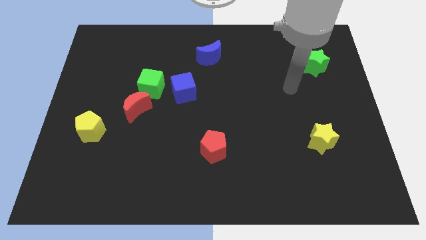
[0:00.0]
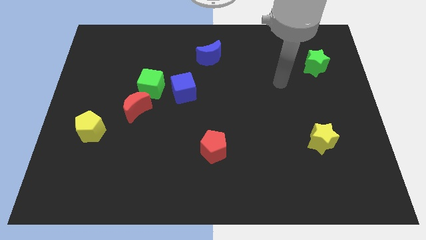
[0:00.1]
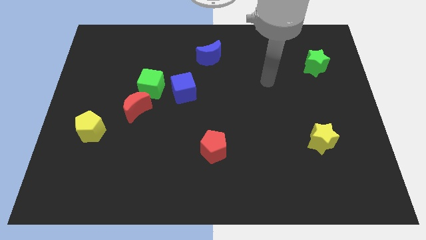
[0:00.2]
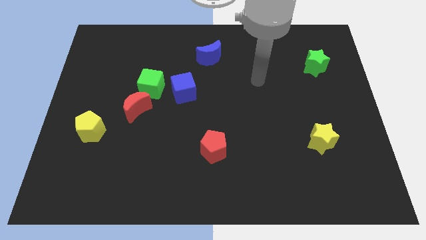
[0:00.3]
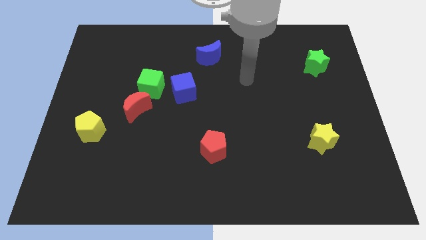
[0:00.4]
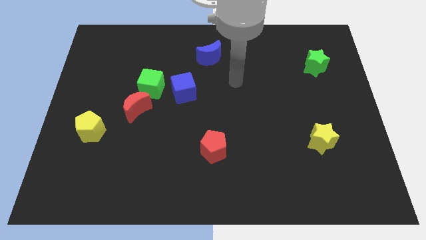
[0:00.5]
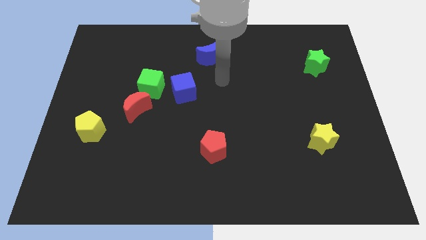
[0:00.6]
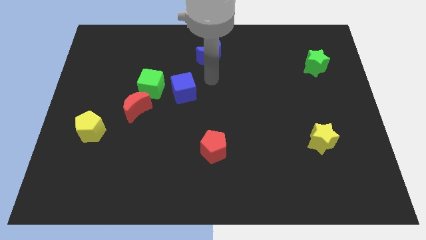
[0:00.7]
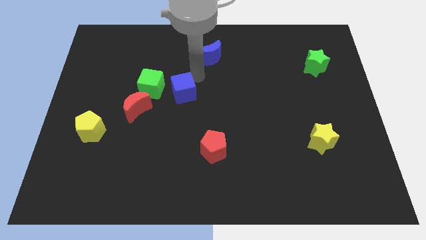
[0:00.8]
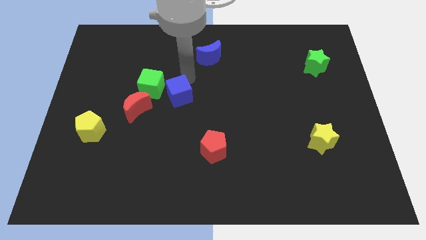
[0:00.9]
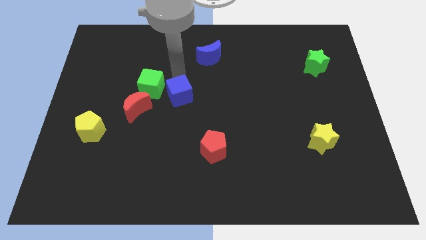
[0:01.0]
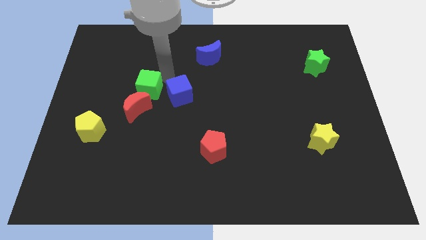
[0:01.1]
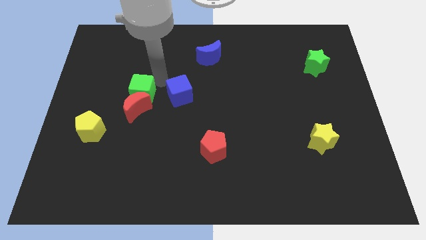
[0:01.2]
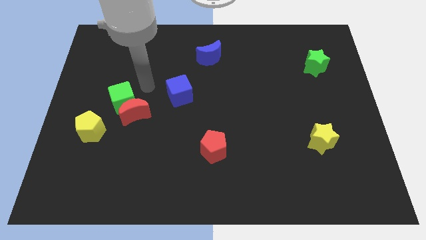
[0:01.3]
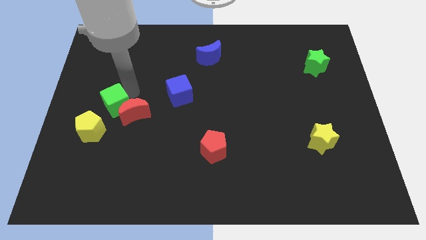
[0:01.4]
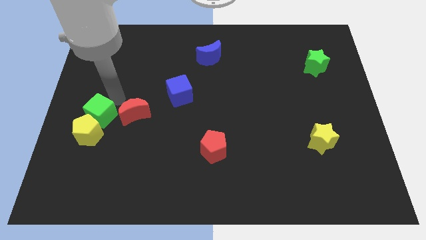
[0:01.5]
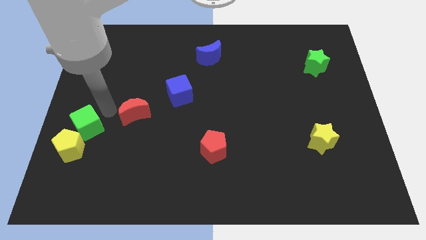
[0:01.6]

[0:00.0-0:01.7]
move the red moon away from the green cube

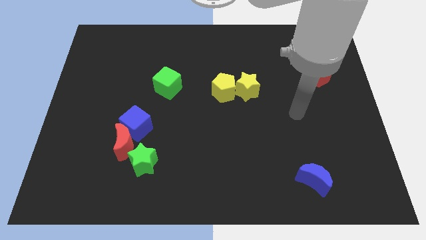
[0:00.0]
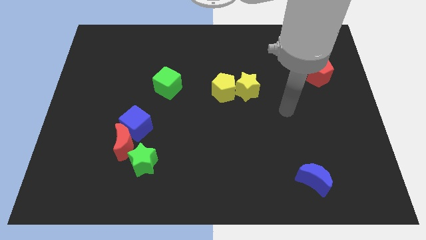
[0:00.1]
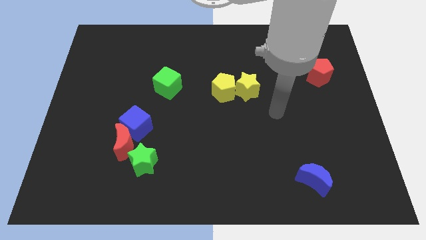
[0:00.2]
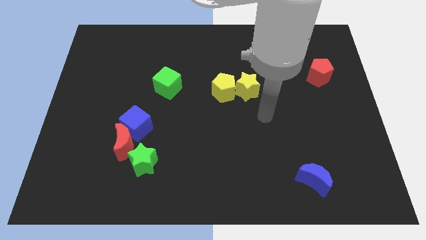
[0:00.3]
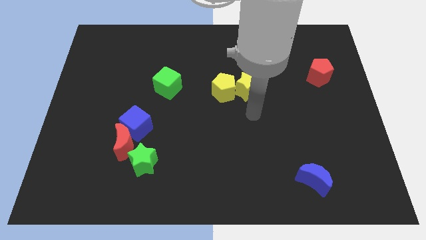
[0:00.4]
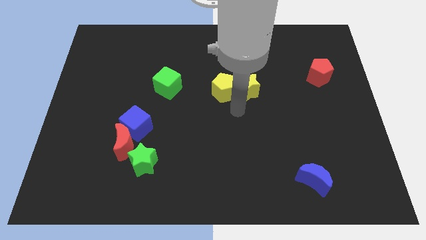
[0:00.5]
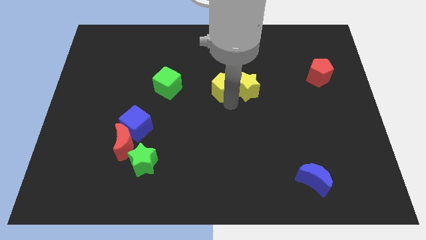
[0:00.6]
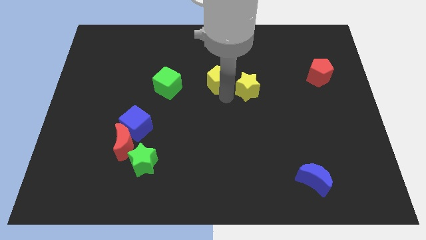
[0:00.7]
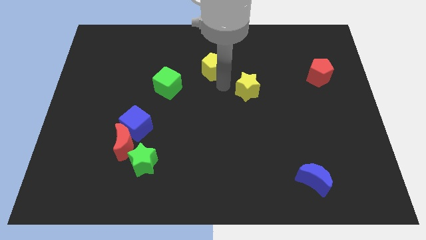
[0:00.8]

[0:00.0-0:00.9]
move the yellow star away from the yellow pentagon

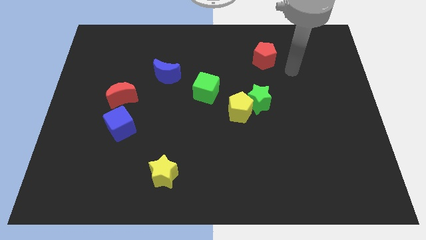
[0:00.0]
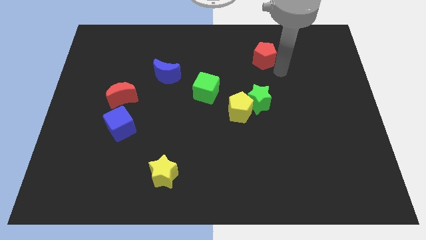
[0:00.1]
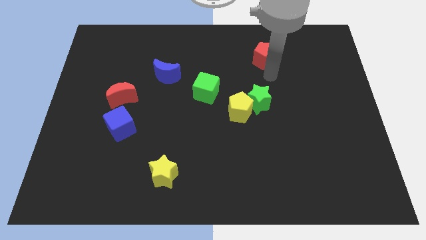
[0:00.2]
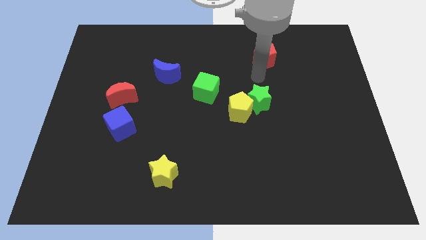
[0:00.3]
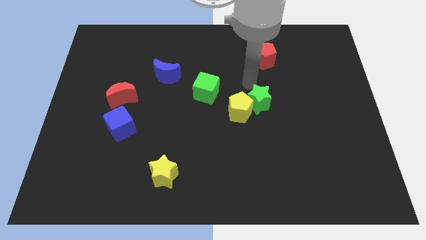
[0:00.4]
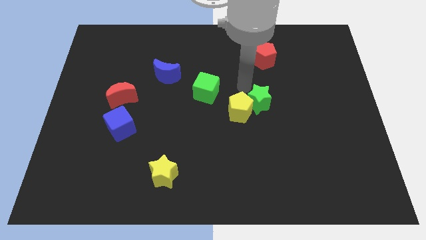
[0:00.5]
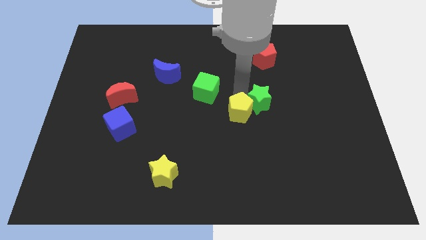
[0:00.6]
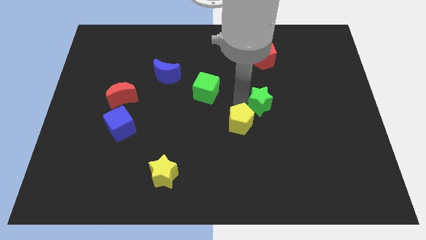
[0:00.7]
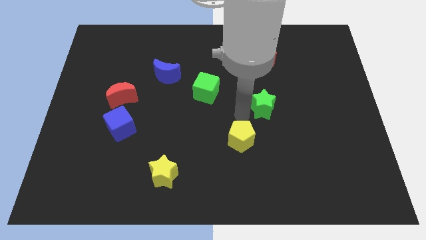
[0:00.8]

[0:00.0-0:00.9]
move the green star away from the yellow pentagon

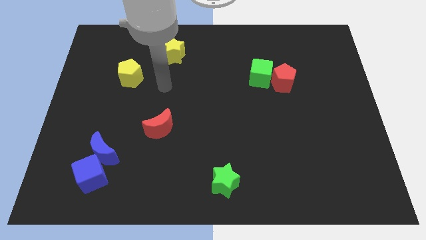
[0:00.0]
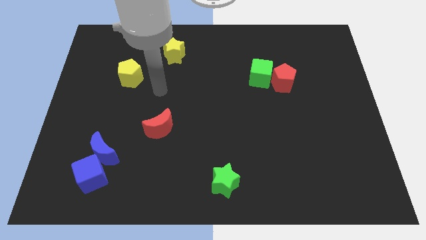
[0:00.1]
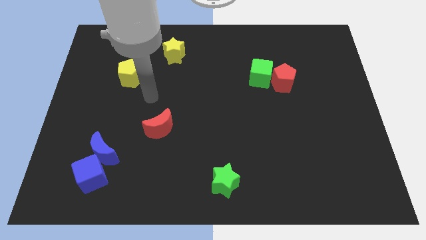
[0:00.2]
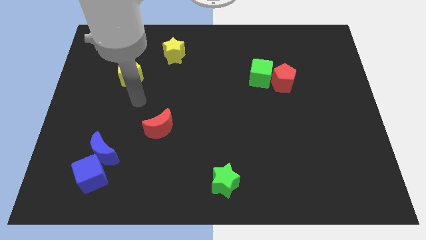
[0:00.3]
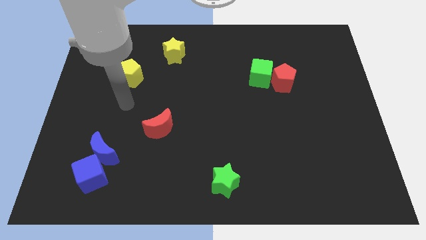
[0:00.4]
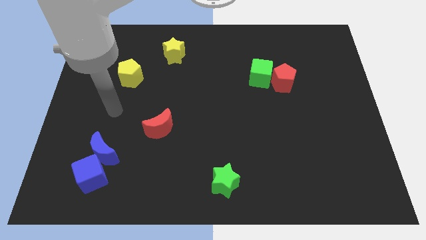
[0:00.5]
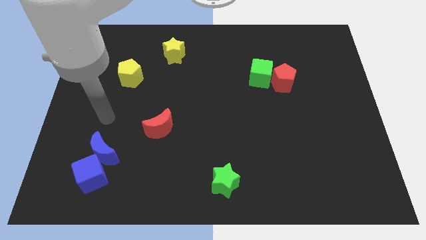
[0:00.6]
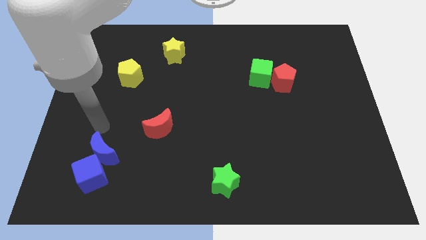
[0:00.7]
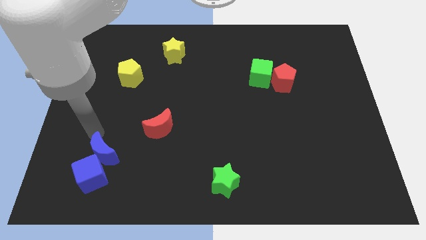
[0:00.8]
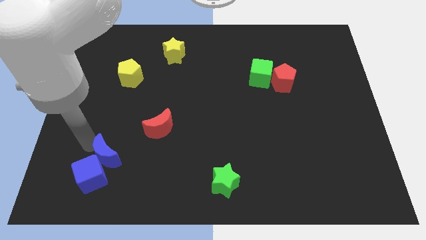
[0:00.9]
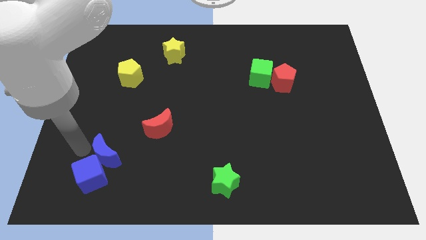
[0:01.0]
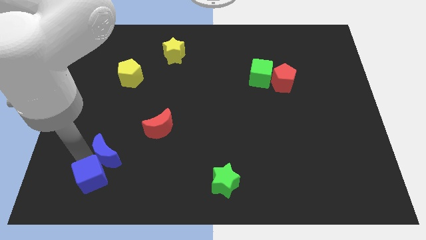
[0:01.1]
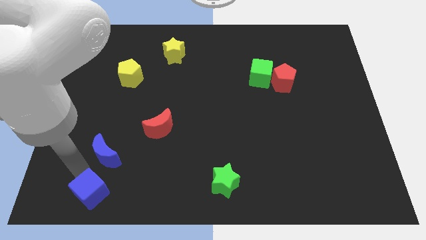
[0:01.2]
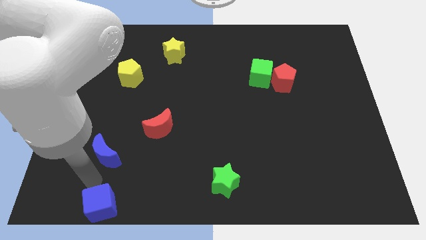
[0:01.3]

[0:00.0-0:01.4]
pull the blue moon apart from the blue cube

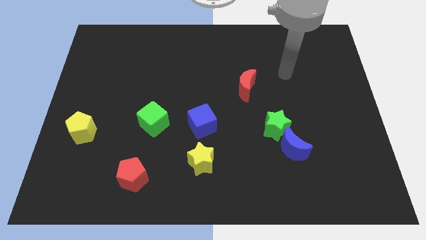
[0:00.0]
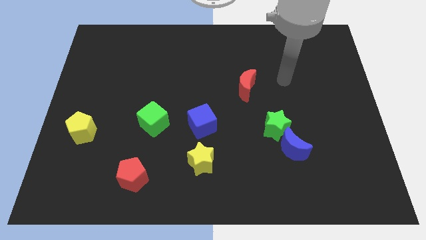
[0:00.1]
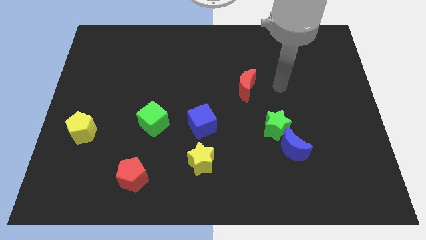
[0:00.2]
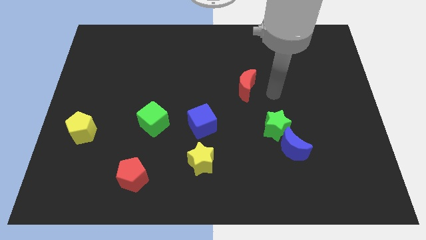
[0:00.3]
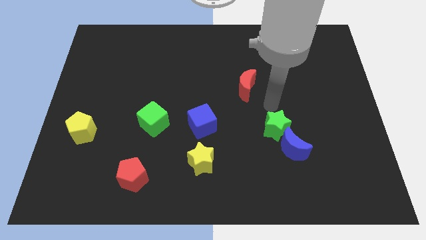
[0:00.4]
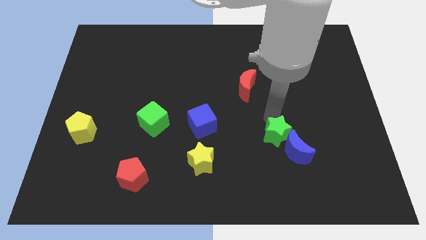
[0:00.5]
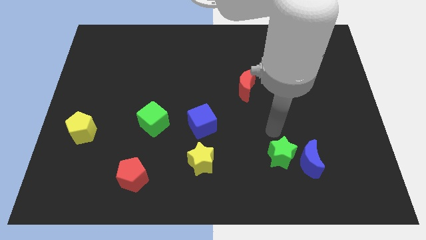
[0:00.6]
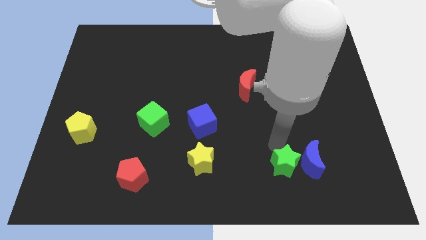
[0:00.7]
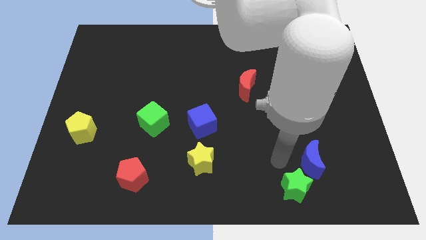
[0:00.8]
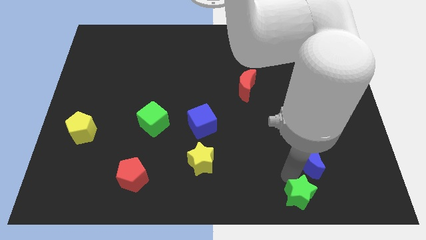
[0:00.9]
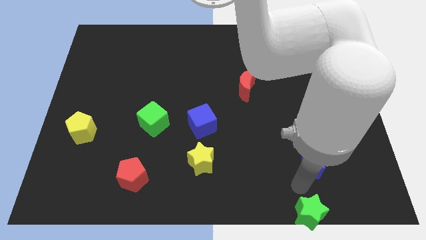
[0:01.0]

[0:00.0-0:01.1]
move the blue moon away from the green star

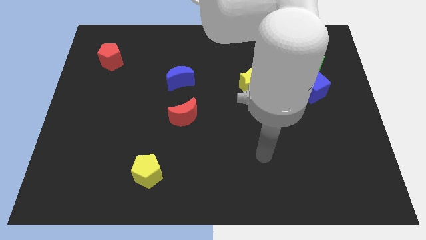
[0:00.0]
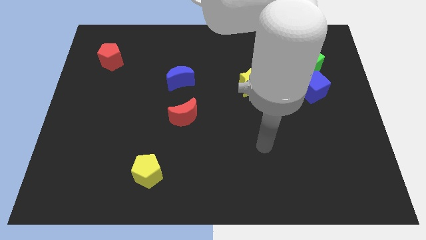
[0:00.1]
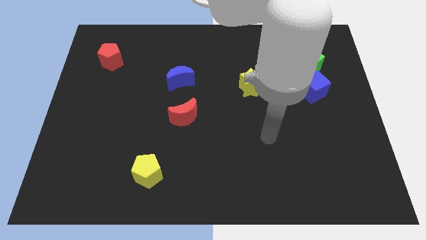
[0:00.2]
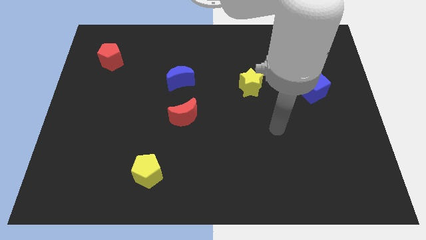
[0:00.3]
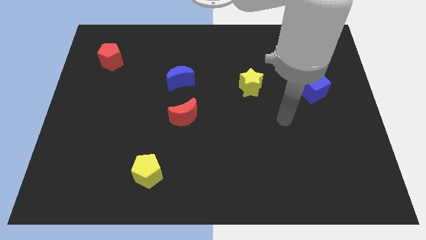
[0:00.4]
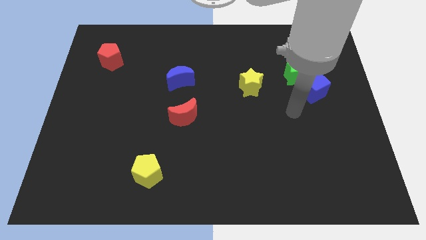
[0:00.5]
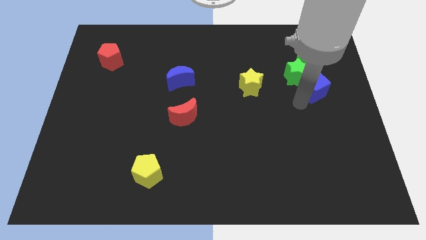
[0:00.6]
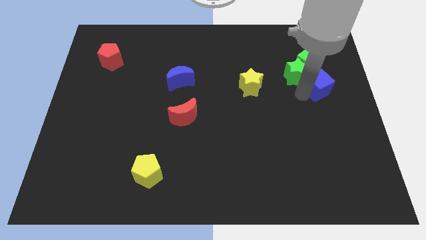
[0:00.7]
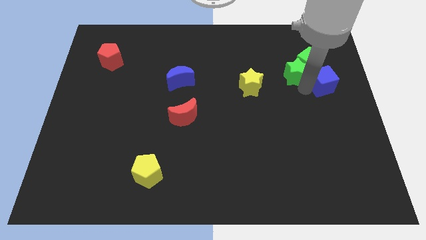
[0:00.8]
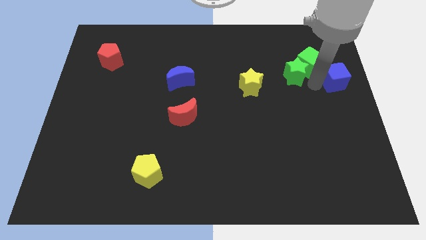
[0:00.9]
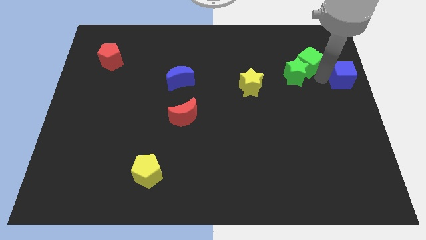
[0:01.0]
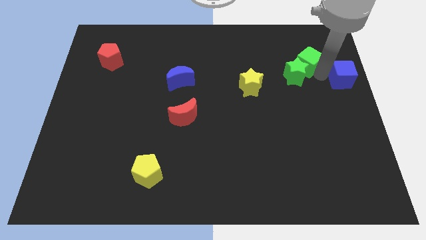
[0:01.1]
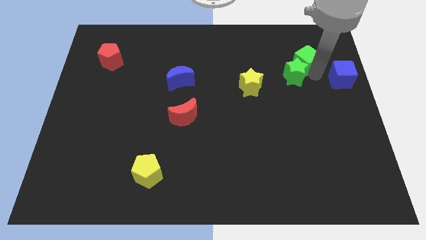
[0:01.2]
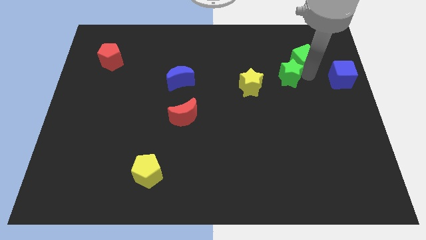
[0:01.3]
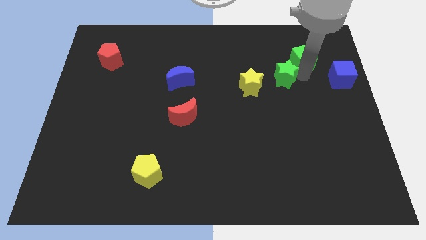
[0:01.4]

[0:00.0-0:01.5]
pull the green star apart from the green cube and blue cube

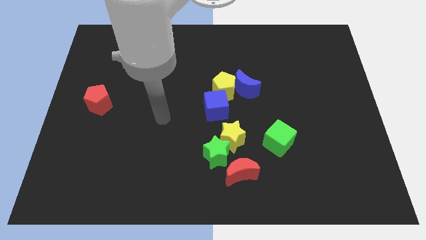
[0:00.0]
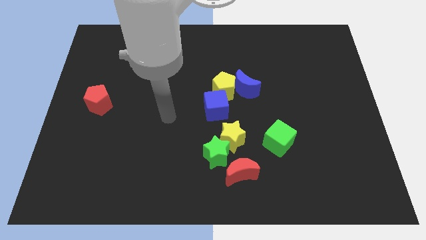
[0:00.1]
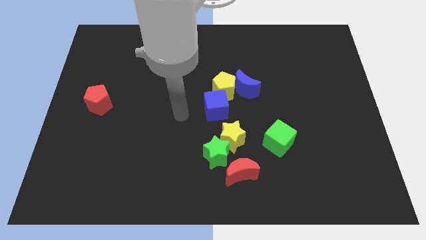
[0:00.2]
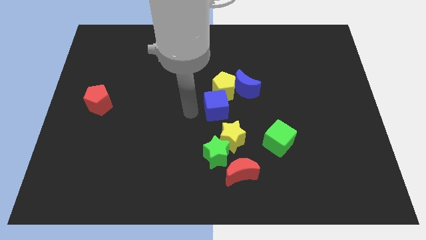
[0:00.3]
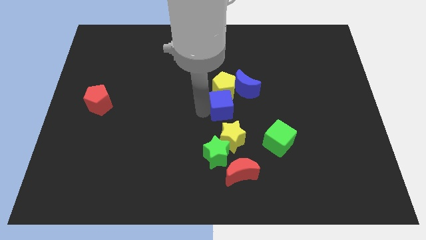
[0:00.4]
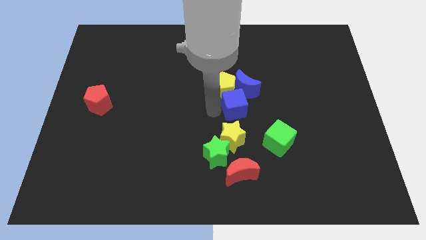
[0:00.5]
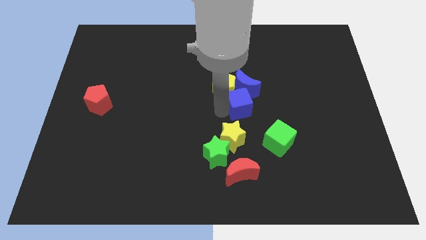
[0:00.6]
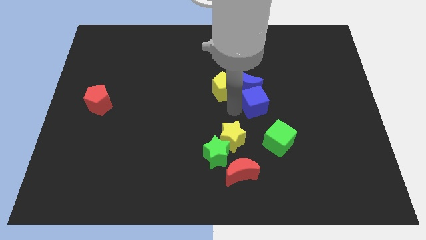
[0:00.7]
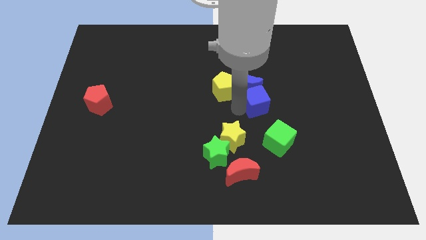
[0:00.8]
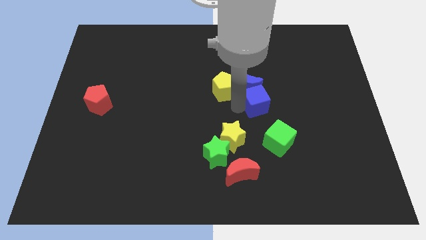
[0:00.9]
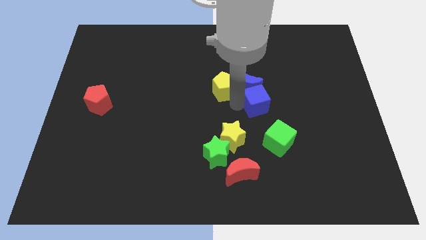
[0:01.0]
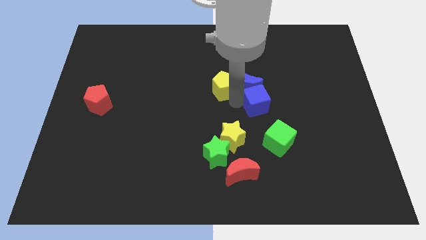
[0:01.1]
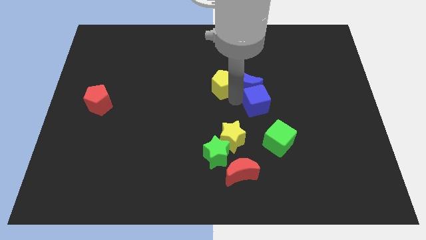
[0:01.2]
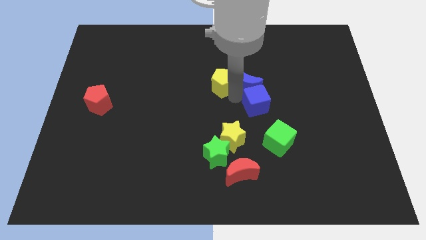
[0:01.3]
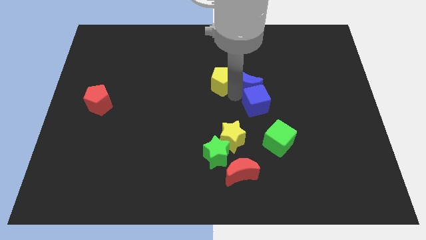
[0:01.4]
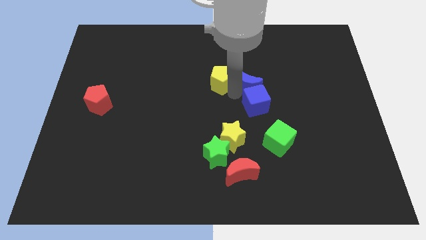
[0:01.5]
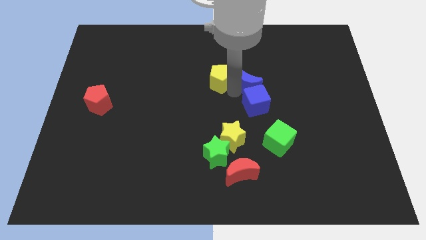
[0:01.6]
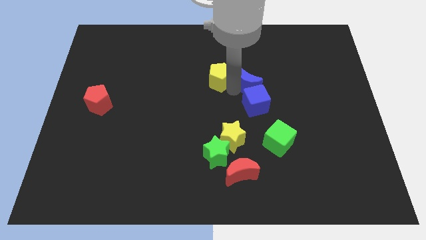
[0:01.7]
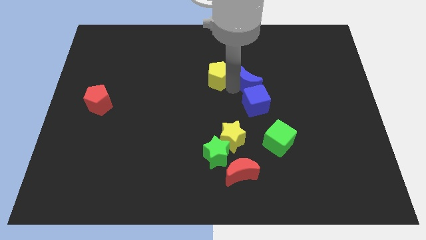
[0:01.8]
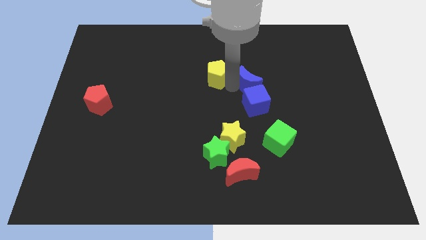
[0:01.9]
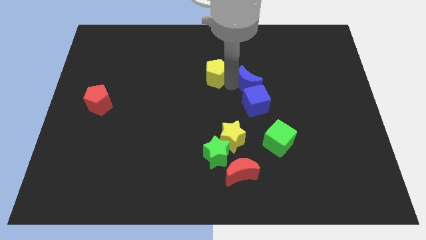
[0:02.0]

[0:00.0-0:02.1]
move the yellow pentagon away from the blue moon and blue cube
